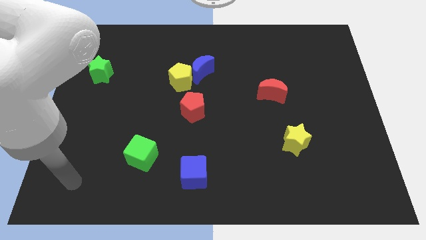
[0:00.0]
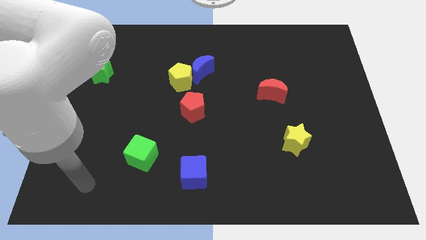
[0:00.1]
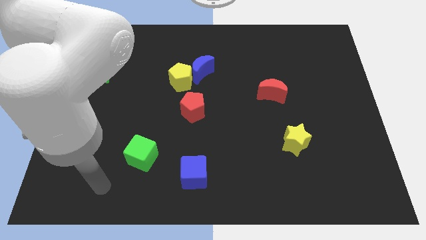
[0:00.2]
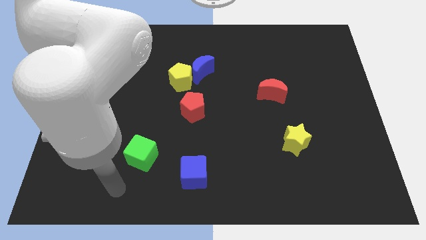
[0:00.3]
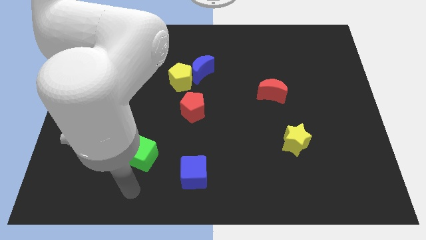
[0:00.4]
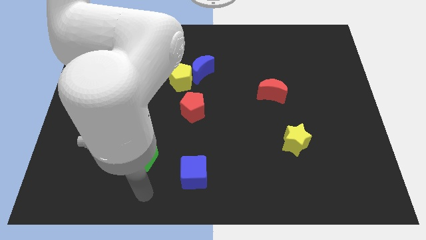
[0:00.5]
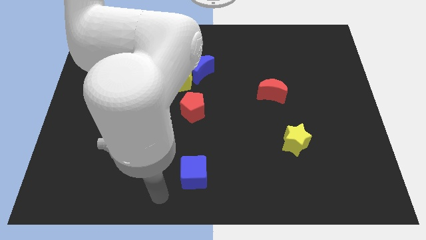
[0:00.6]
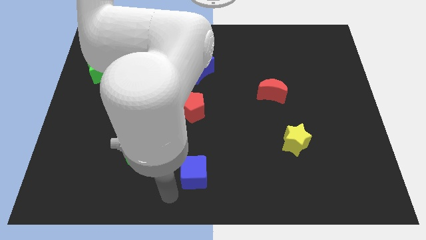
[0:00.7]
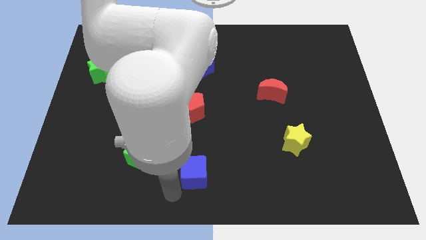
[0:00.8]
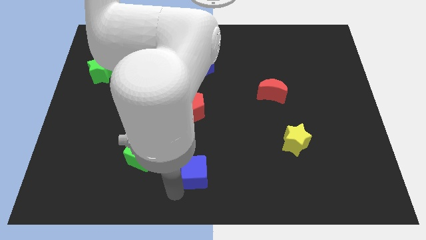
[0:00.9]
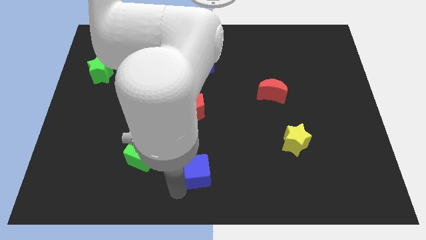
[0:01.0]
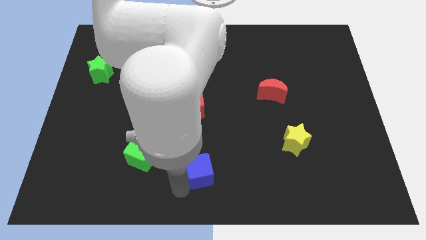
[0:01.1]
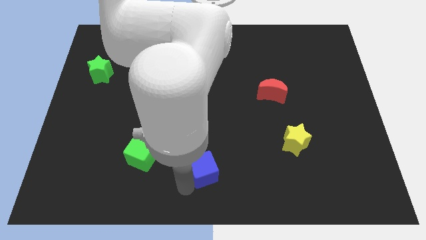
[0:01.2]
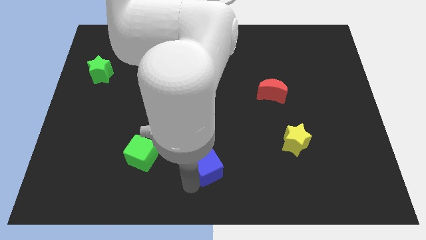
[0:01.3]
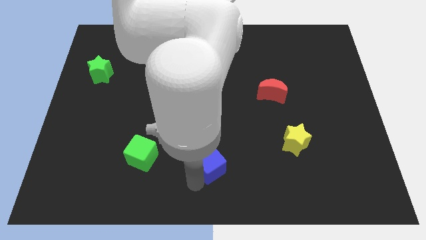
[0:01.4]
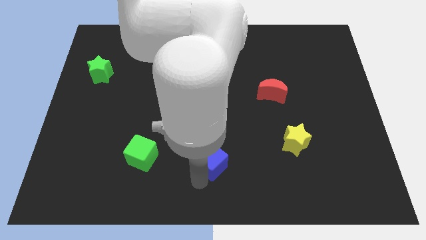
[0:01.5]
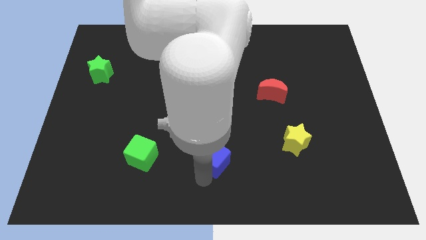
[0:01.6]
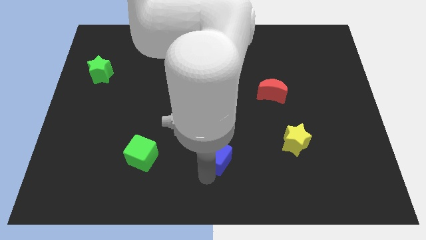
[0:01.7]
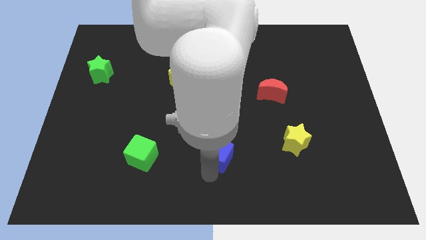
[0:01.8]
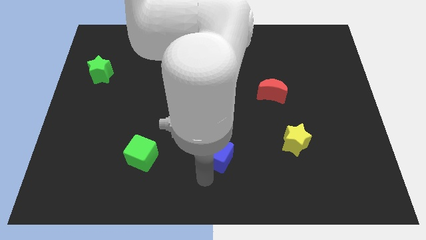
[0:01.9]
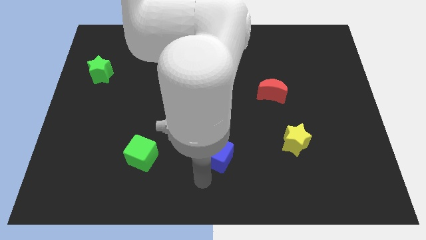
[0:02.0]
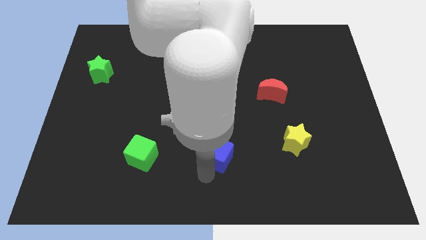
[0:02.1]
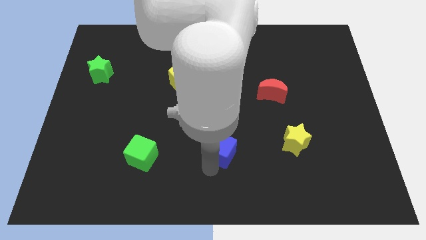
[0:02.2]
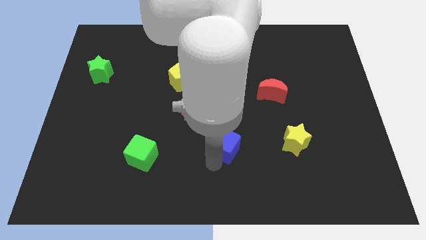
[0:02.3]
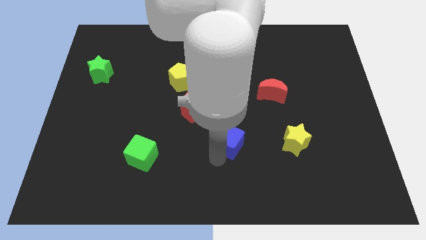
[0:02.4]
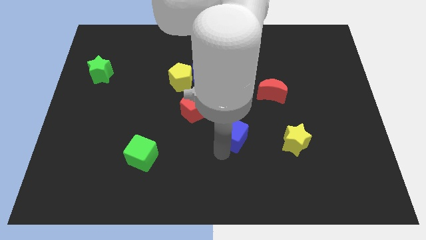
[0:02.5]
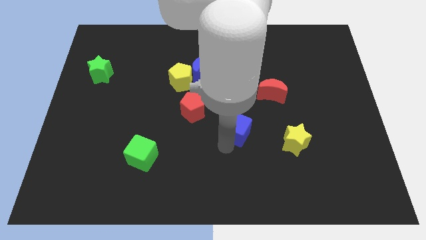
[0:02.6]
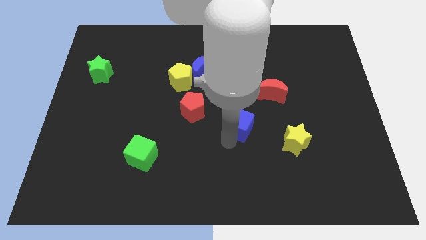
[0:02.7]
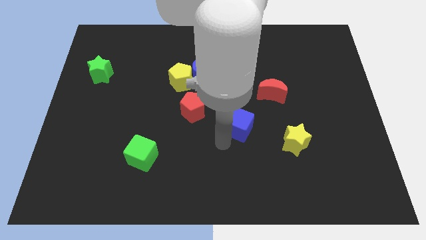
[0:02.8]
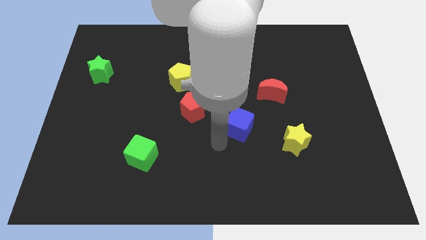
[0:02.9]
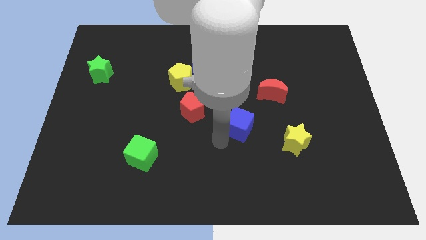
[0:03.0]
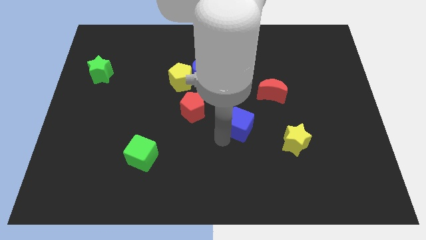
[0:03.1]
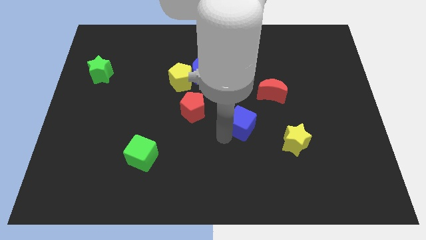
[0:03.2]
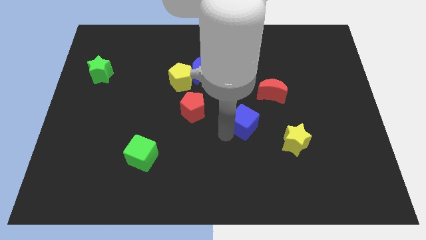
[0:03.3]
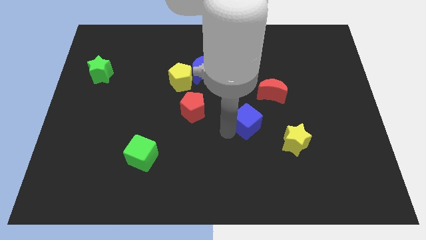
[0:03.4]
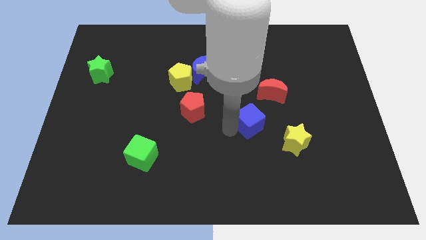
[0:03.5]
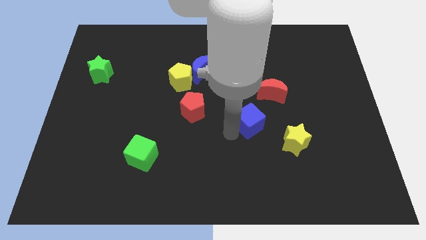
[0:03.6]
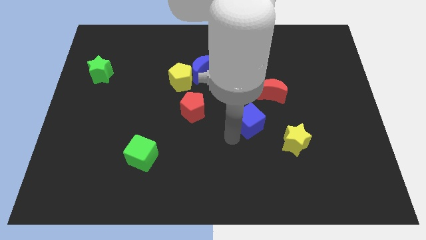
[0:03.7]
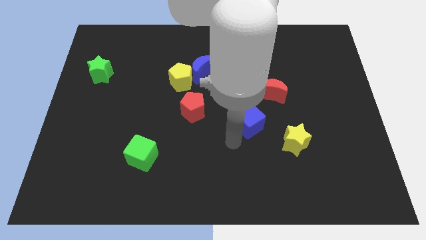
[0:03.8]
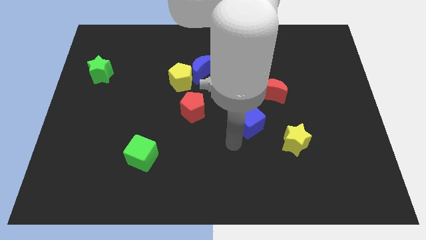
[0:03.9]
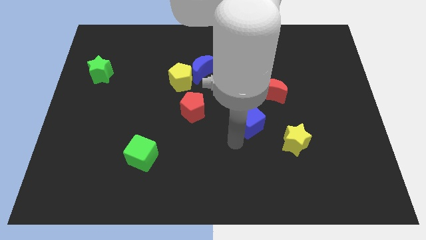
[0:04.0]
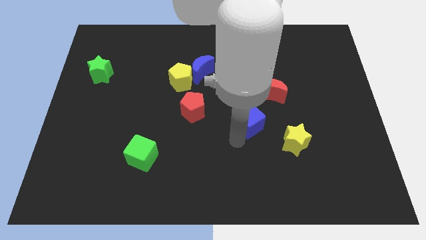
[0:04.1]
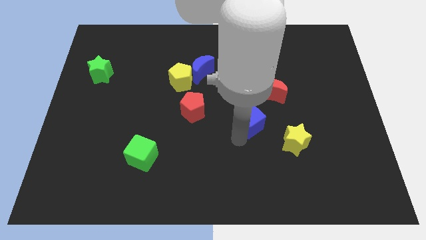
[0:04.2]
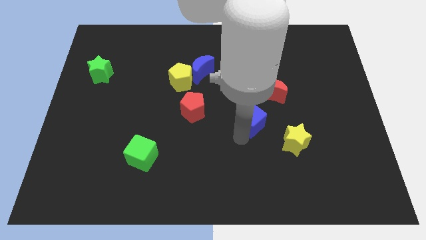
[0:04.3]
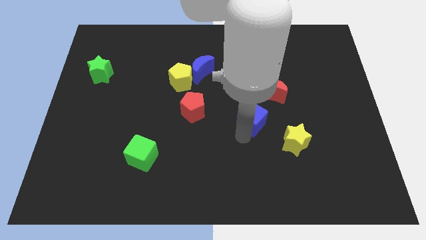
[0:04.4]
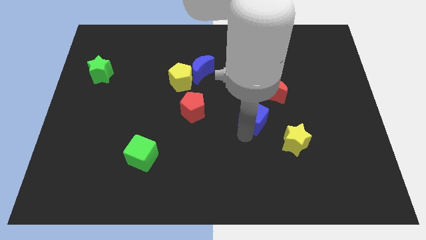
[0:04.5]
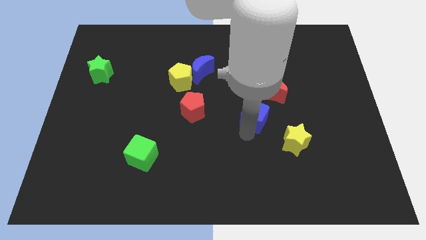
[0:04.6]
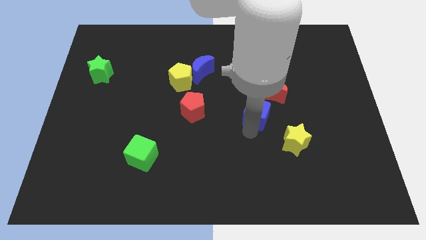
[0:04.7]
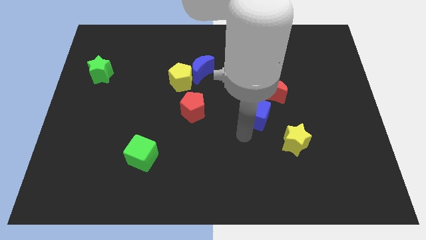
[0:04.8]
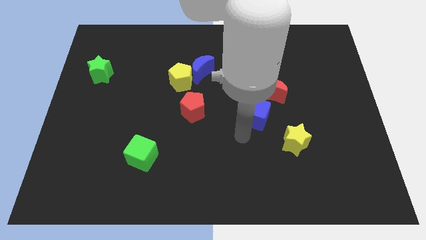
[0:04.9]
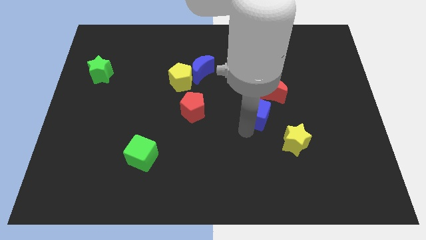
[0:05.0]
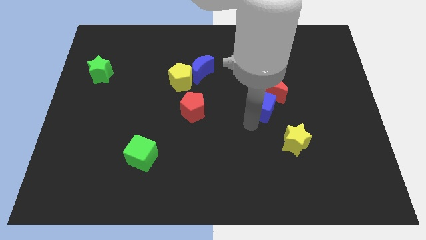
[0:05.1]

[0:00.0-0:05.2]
move the blue cube towards the red moon

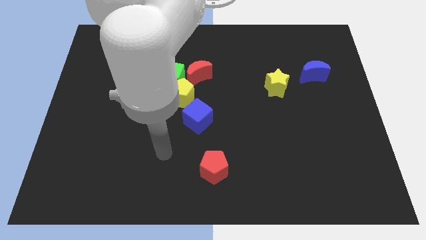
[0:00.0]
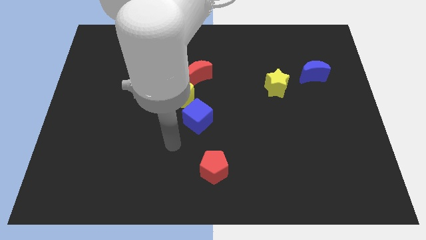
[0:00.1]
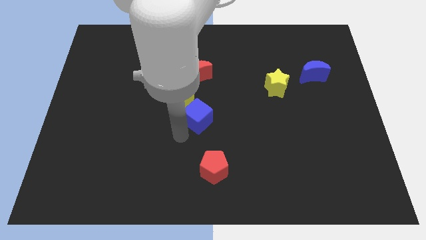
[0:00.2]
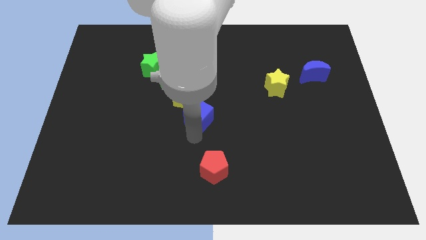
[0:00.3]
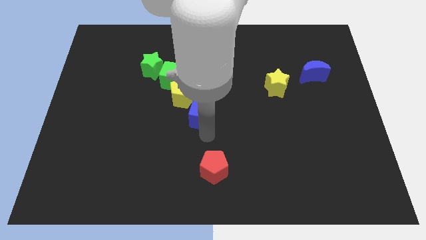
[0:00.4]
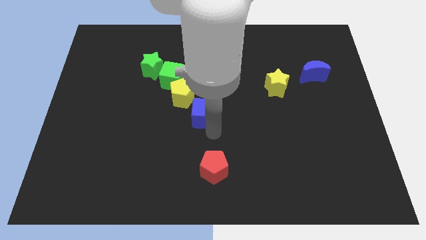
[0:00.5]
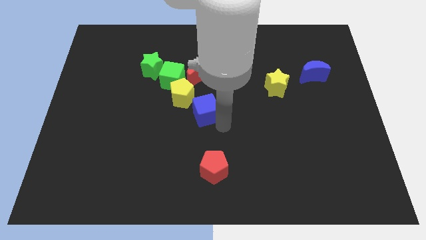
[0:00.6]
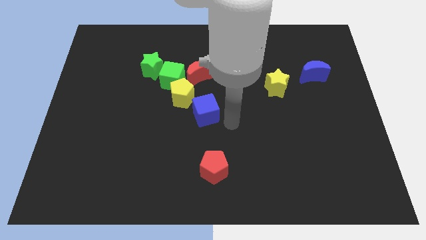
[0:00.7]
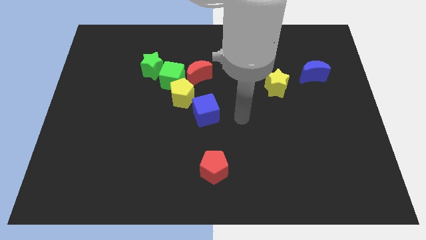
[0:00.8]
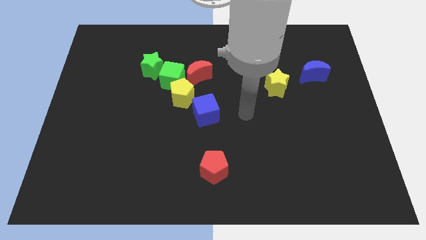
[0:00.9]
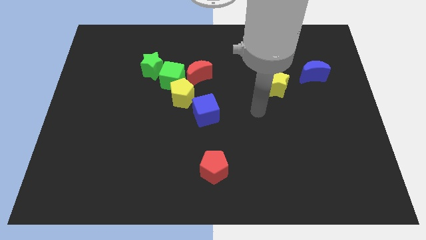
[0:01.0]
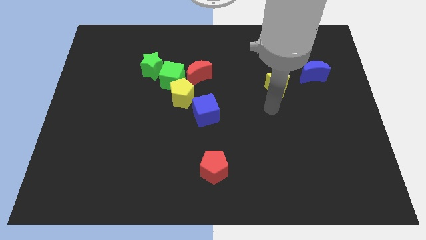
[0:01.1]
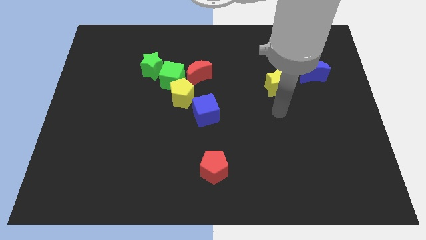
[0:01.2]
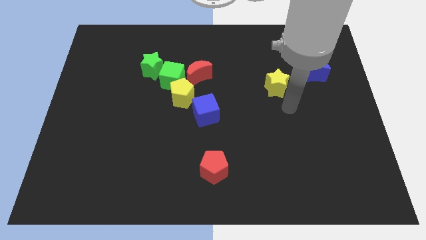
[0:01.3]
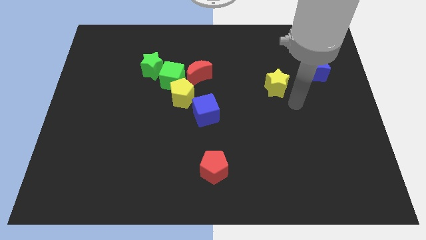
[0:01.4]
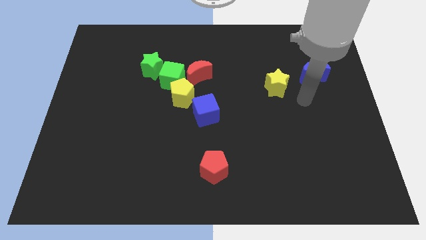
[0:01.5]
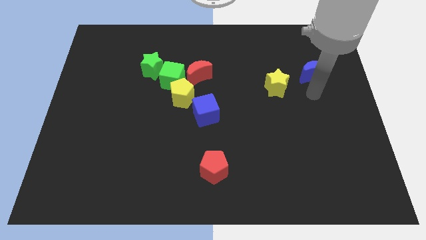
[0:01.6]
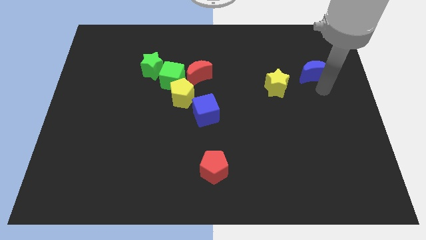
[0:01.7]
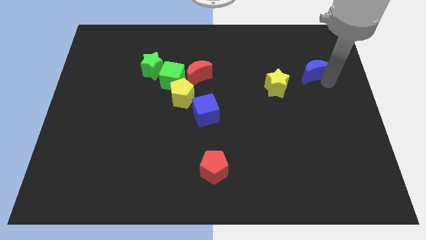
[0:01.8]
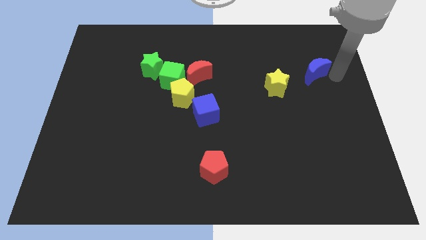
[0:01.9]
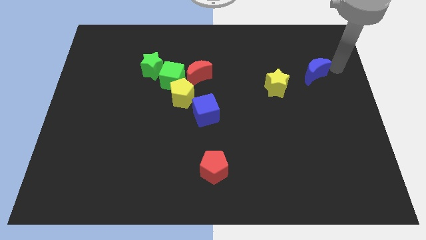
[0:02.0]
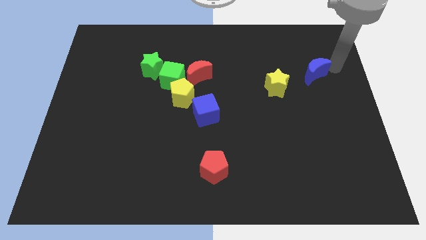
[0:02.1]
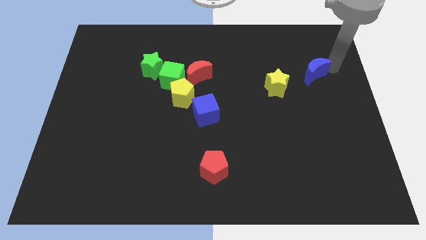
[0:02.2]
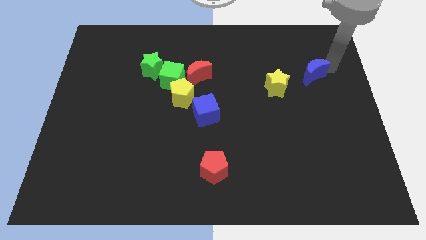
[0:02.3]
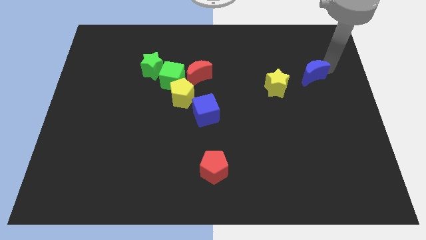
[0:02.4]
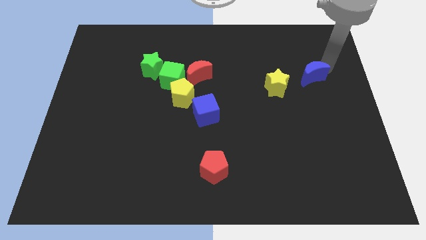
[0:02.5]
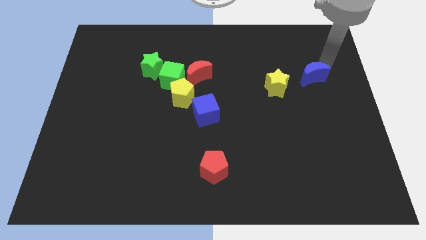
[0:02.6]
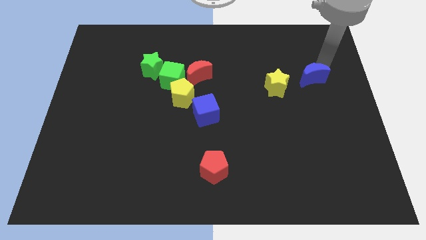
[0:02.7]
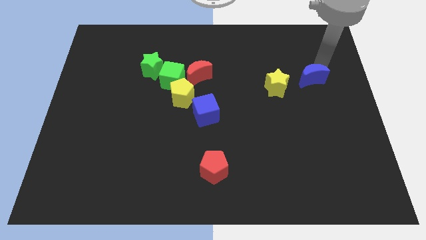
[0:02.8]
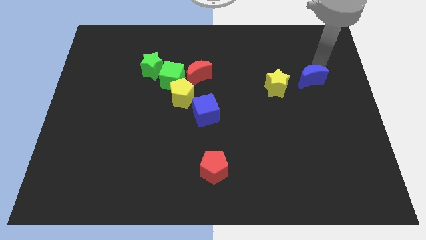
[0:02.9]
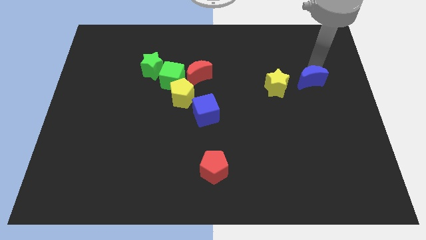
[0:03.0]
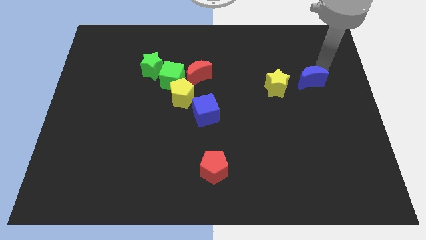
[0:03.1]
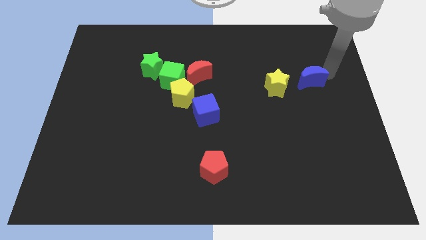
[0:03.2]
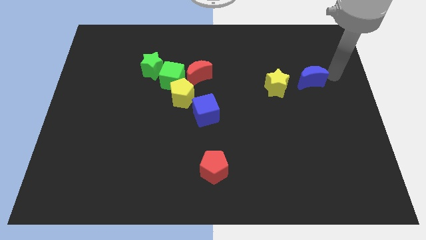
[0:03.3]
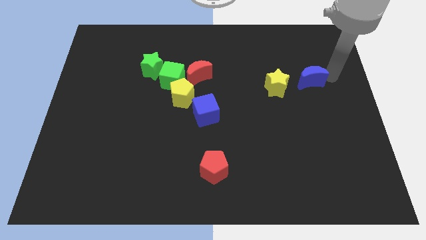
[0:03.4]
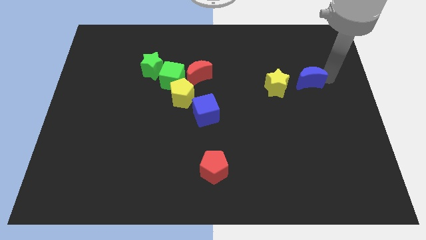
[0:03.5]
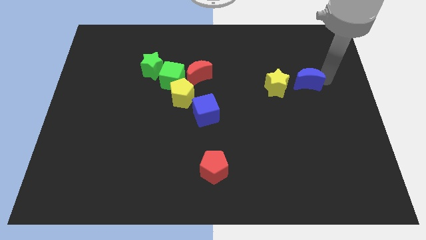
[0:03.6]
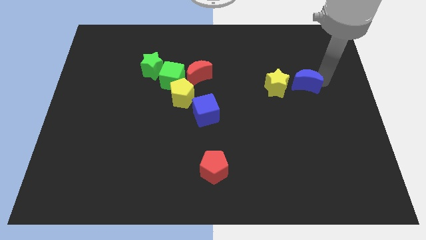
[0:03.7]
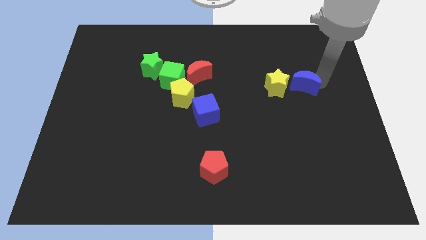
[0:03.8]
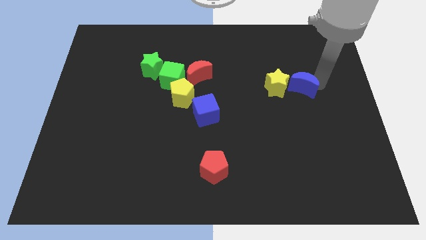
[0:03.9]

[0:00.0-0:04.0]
slide the blue moon close to the yellow star
